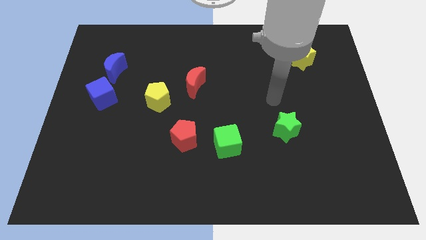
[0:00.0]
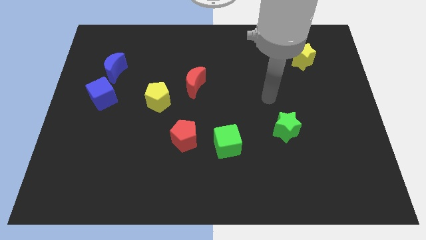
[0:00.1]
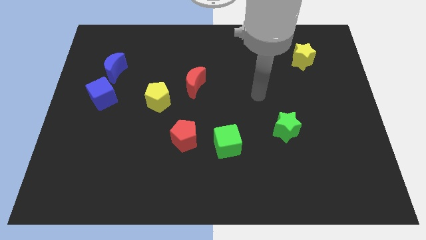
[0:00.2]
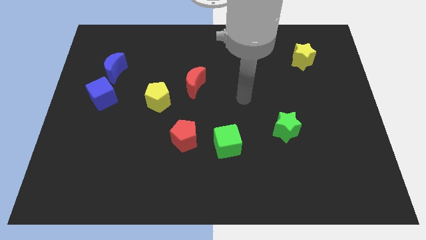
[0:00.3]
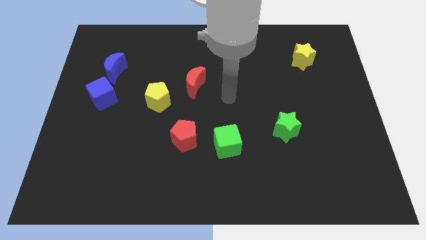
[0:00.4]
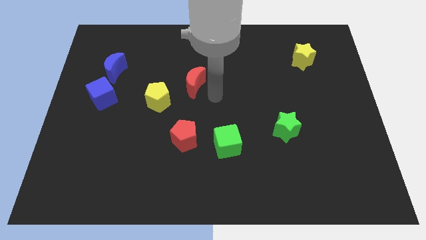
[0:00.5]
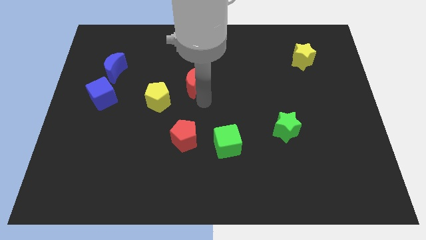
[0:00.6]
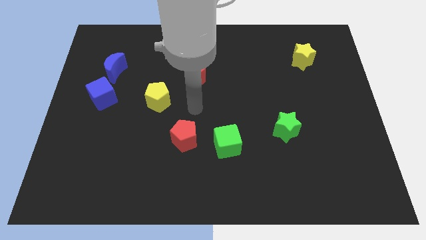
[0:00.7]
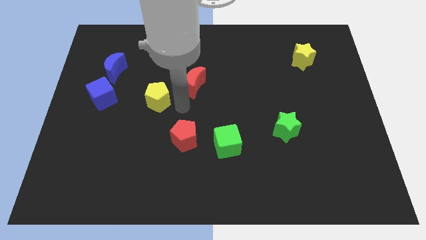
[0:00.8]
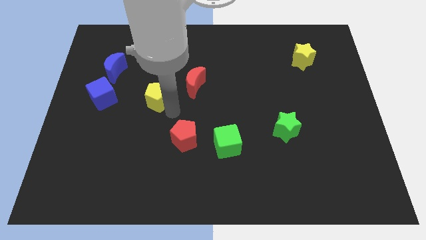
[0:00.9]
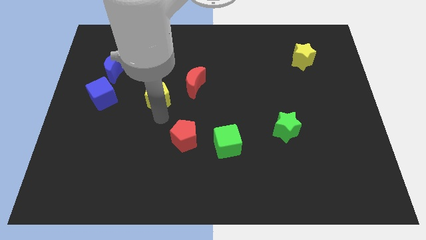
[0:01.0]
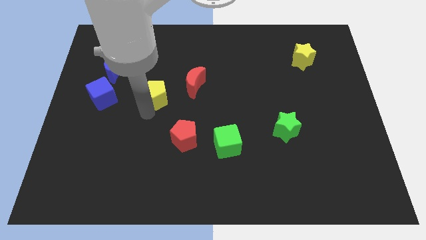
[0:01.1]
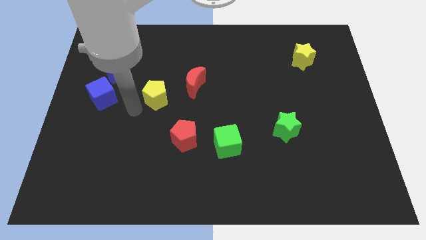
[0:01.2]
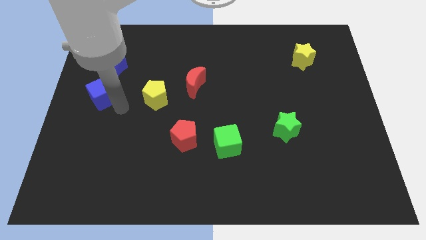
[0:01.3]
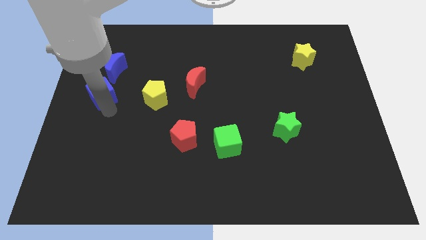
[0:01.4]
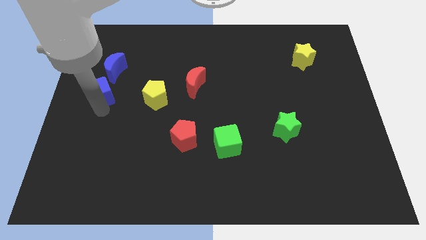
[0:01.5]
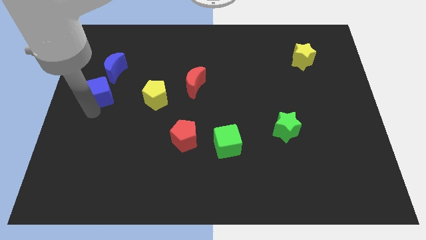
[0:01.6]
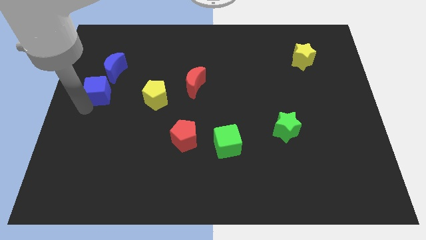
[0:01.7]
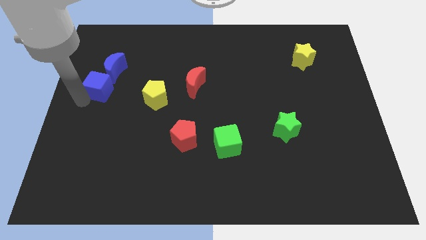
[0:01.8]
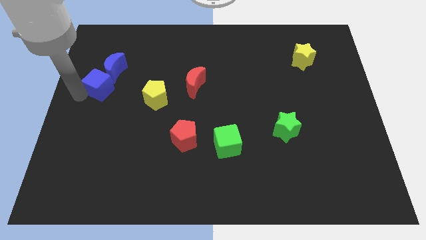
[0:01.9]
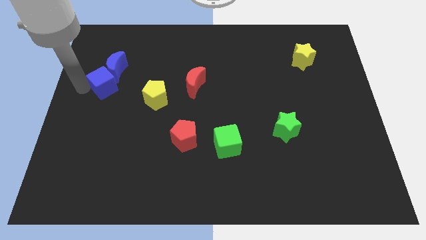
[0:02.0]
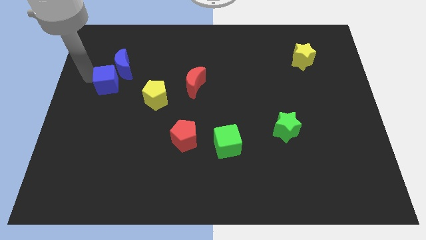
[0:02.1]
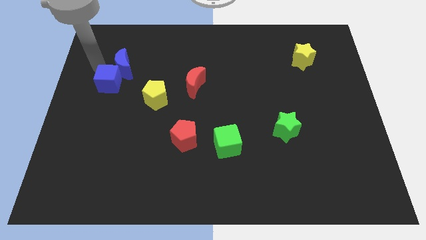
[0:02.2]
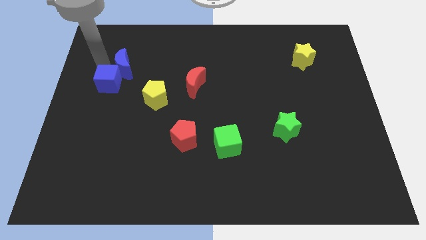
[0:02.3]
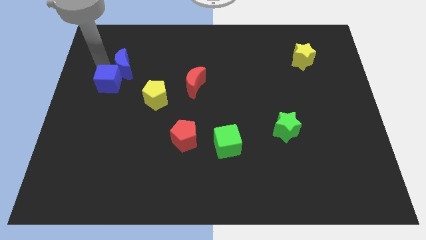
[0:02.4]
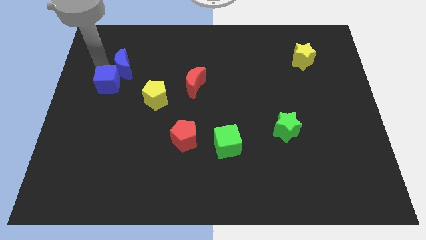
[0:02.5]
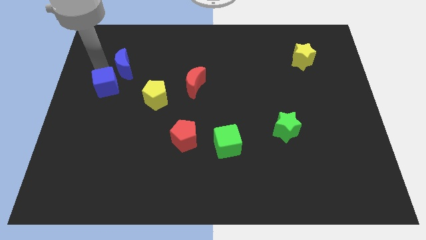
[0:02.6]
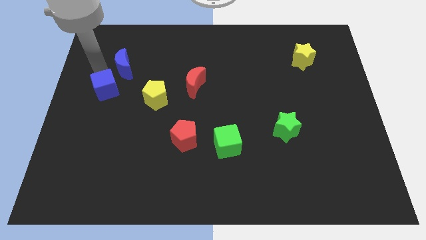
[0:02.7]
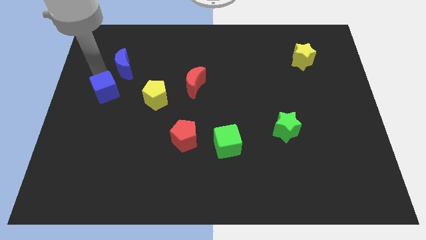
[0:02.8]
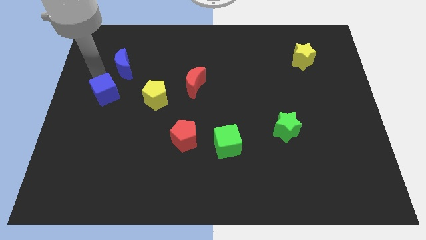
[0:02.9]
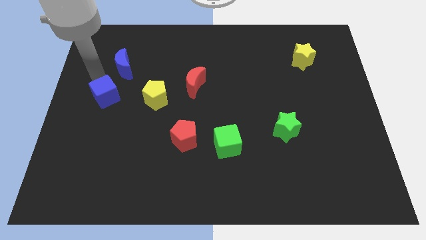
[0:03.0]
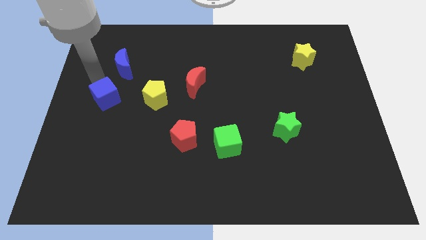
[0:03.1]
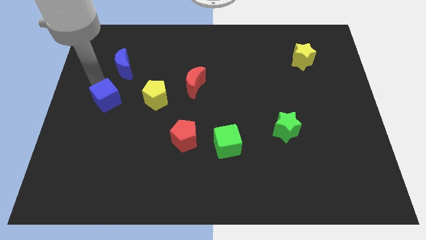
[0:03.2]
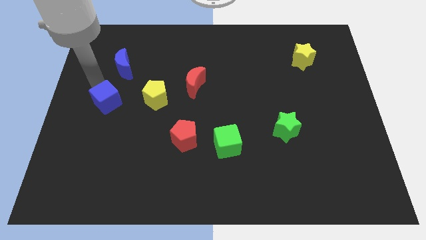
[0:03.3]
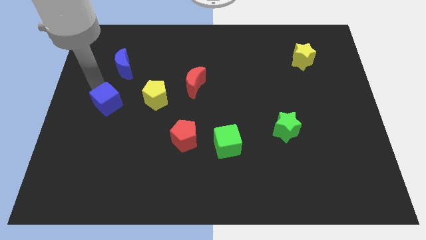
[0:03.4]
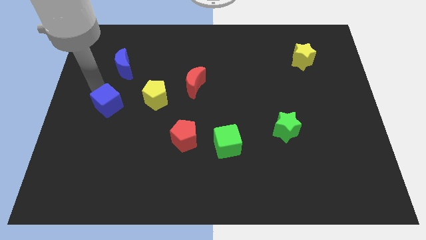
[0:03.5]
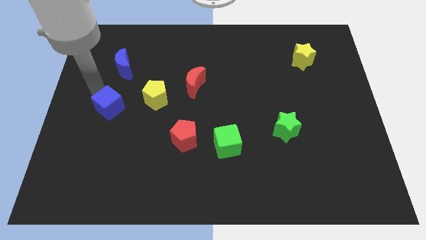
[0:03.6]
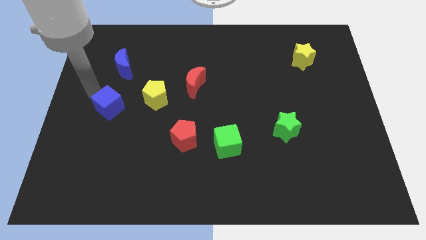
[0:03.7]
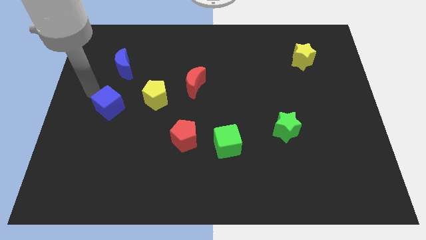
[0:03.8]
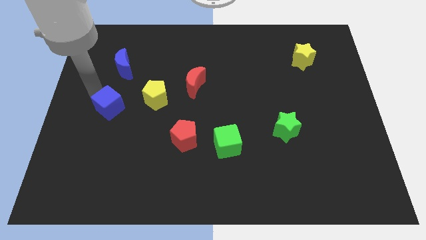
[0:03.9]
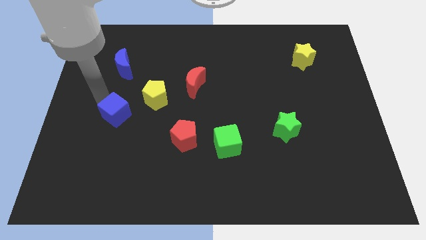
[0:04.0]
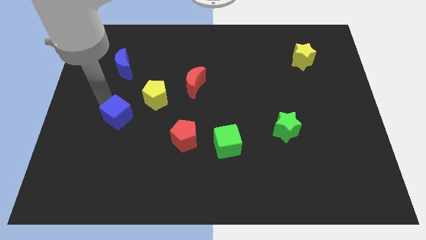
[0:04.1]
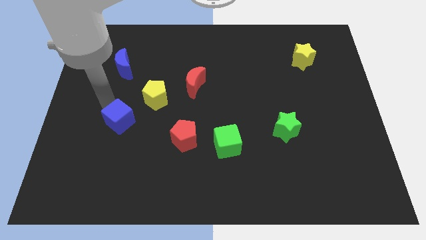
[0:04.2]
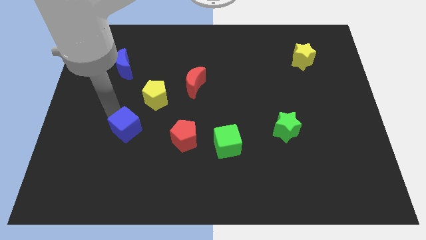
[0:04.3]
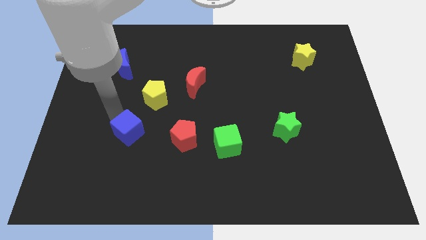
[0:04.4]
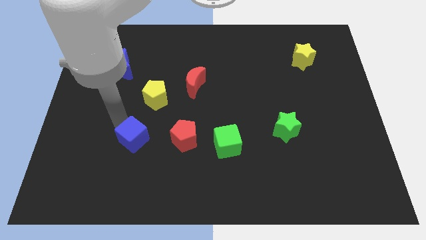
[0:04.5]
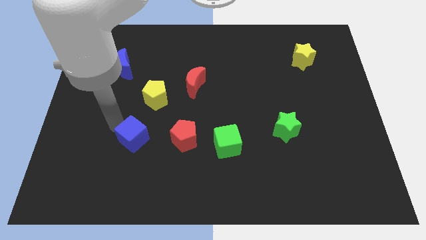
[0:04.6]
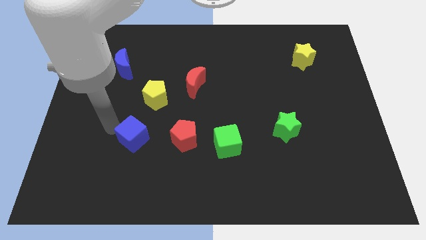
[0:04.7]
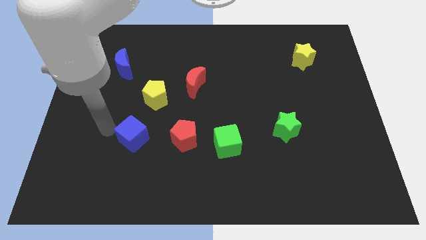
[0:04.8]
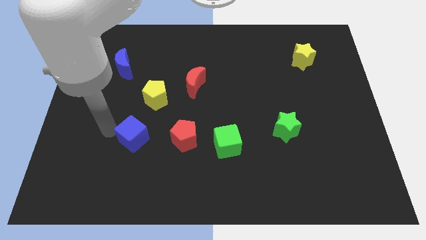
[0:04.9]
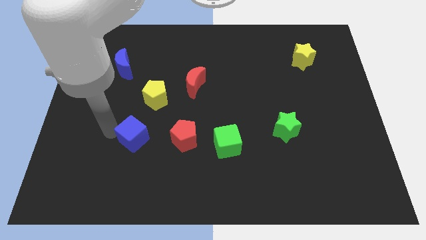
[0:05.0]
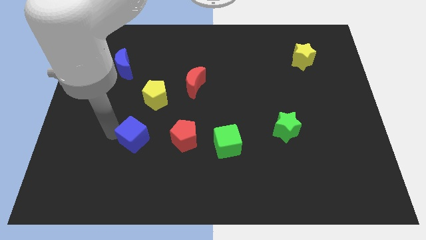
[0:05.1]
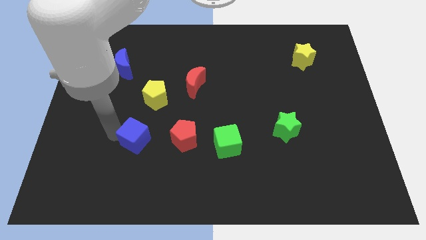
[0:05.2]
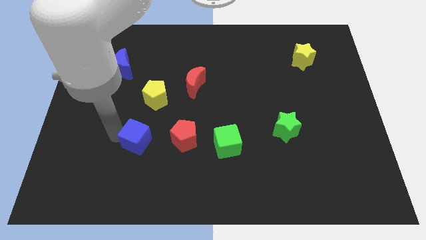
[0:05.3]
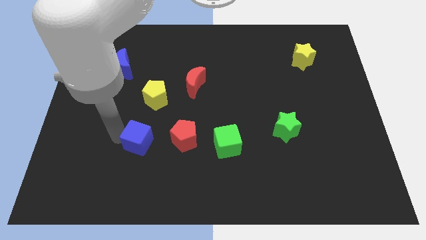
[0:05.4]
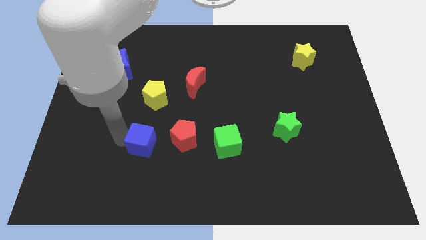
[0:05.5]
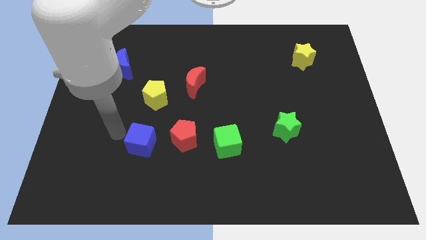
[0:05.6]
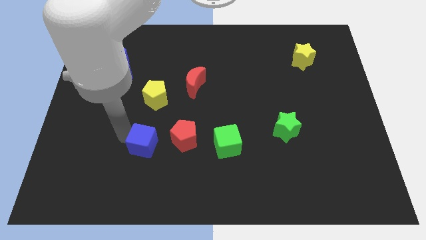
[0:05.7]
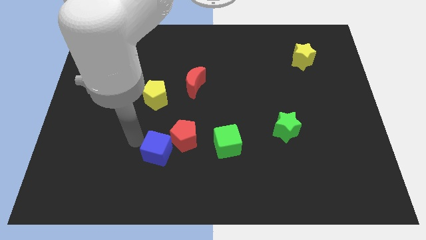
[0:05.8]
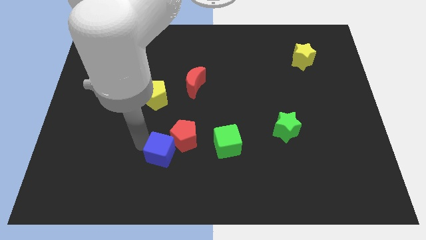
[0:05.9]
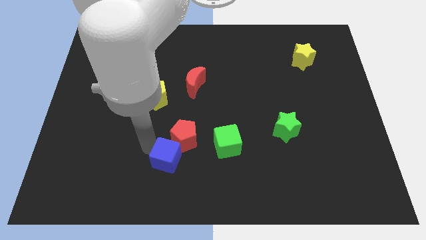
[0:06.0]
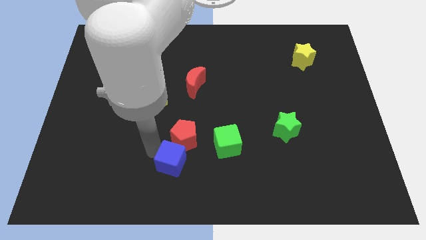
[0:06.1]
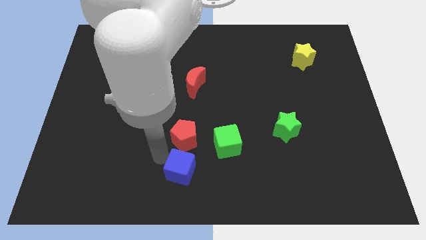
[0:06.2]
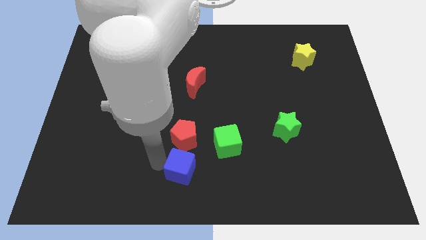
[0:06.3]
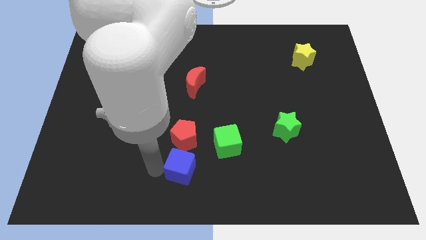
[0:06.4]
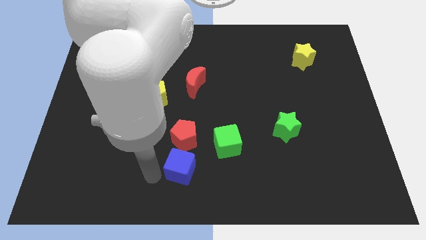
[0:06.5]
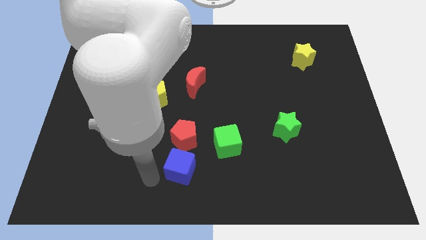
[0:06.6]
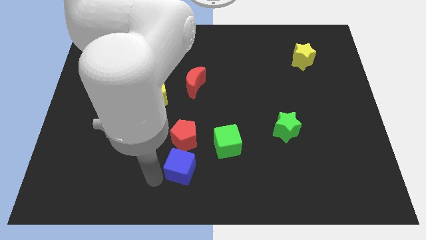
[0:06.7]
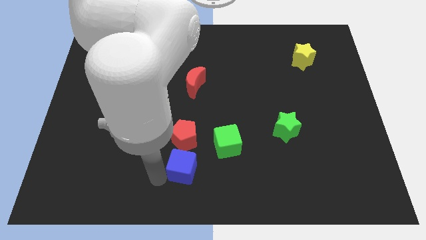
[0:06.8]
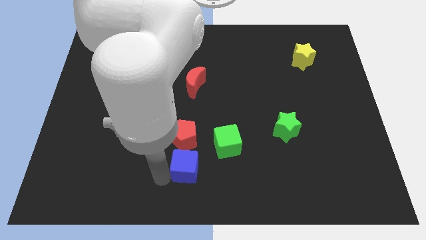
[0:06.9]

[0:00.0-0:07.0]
push the blue cube to the bottom right side of the red pentagon
